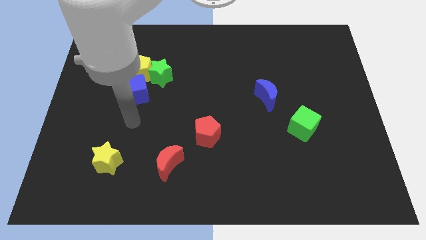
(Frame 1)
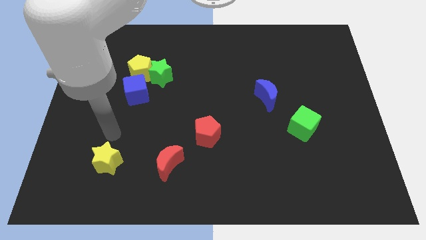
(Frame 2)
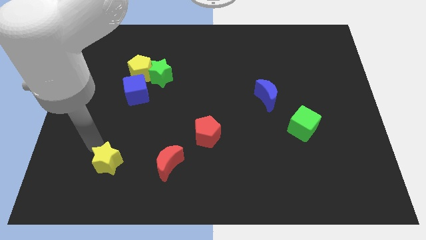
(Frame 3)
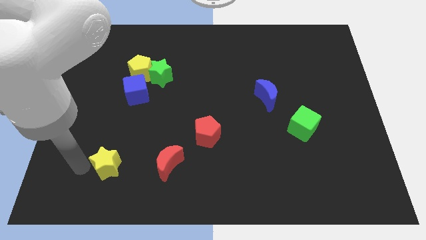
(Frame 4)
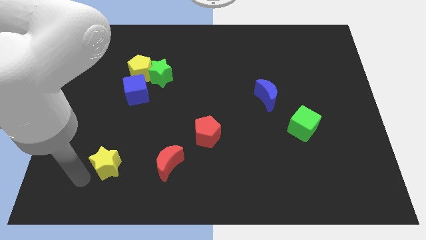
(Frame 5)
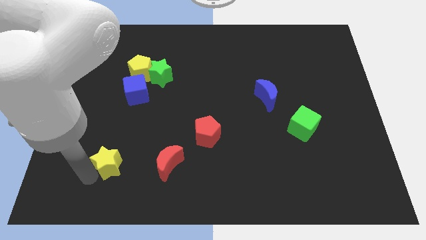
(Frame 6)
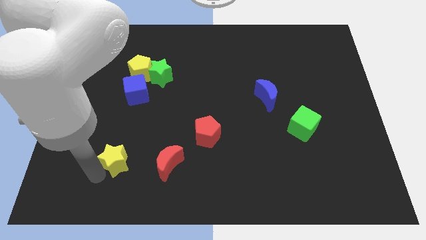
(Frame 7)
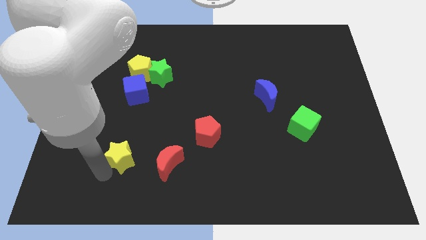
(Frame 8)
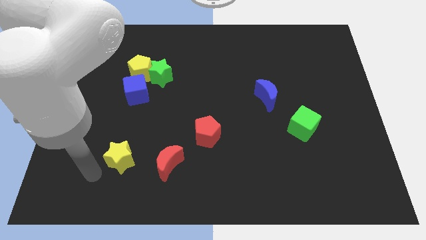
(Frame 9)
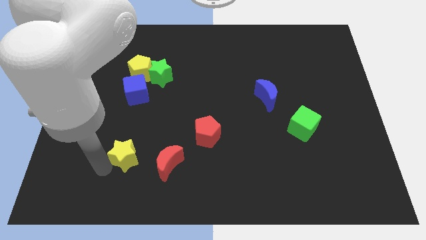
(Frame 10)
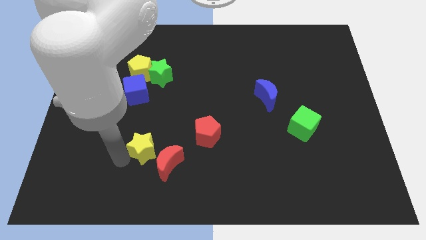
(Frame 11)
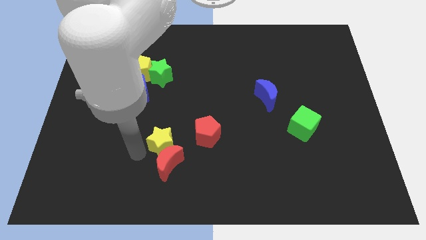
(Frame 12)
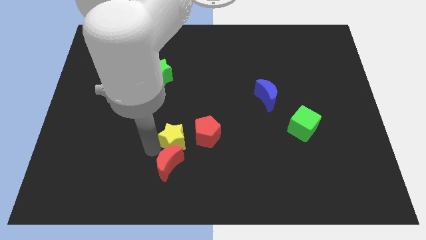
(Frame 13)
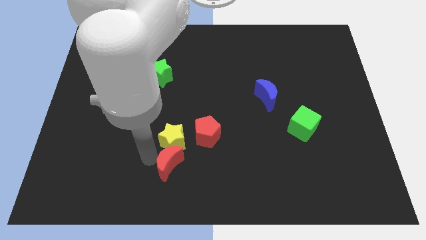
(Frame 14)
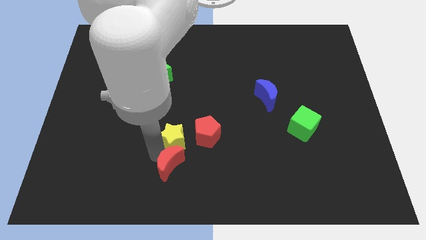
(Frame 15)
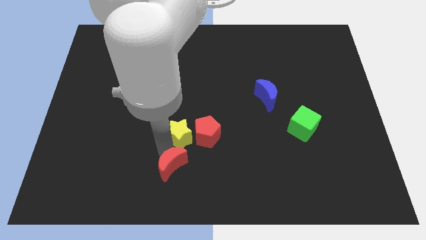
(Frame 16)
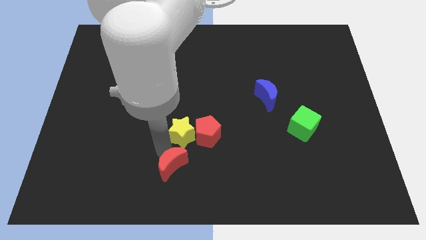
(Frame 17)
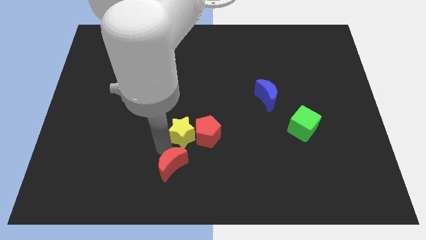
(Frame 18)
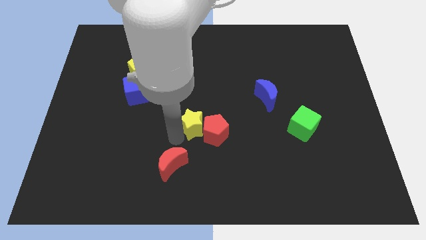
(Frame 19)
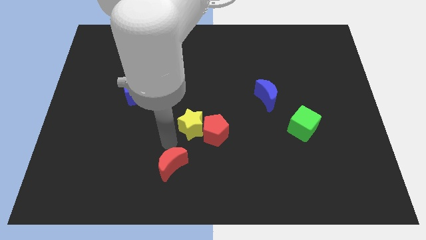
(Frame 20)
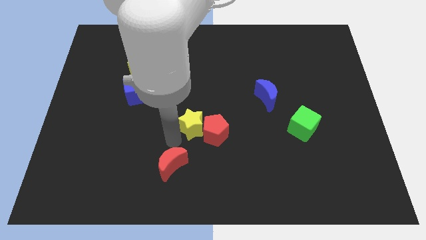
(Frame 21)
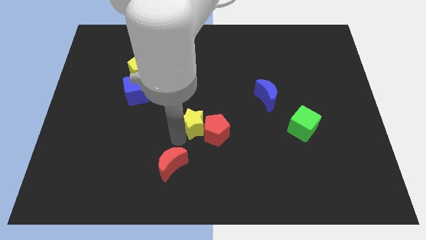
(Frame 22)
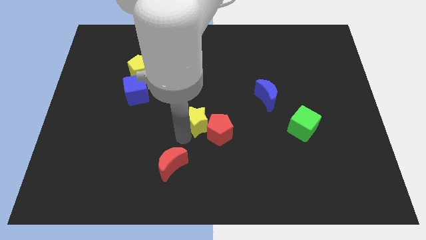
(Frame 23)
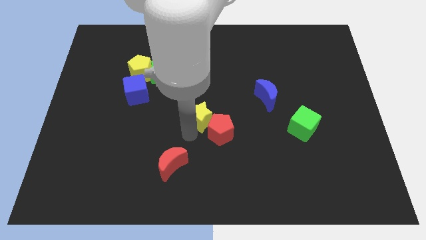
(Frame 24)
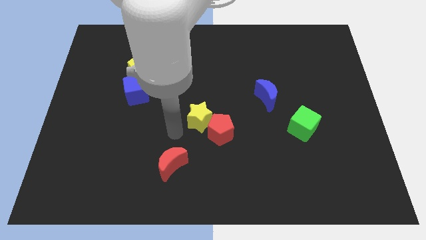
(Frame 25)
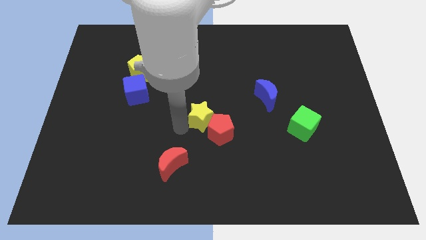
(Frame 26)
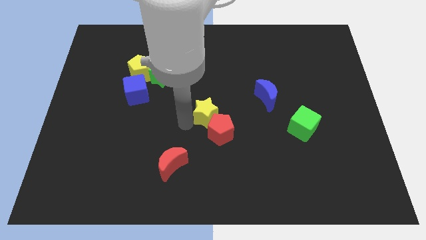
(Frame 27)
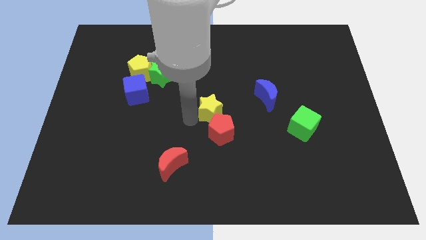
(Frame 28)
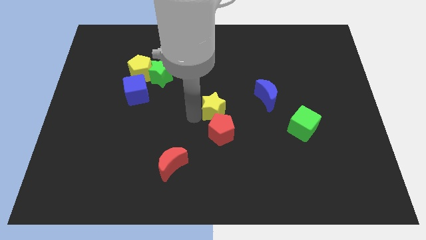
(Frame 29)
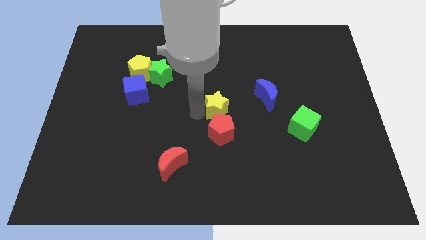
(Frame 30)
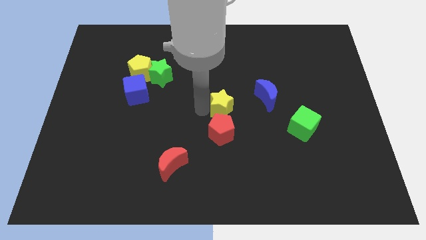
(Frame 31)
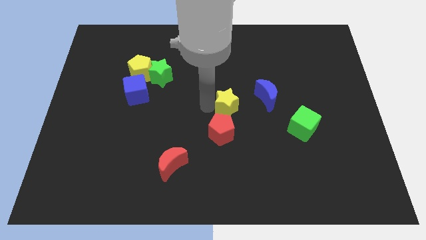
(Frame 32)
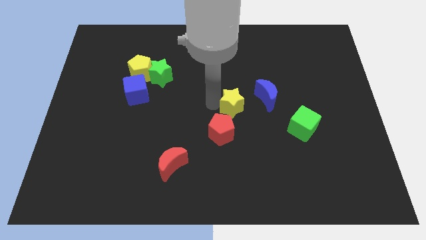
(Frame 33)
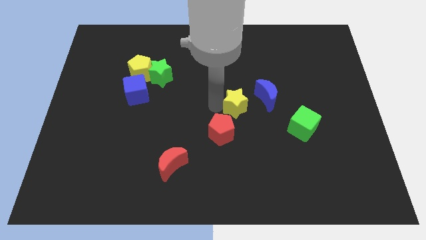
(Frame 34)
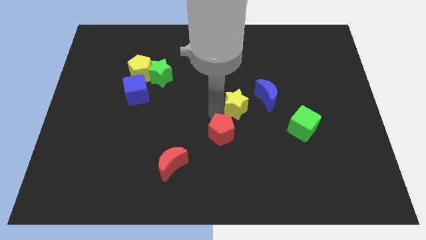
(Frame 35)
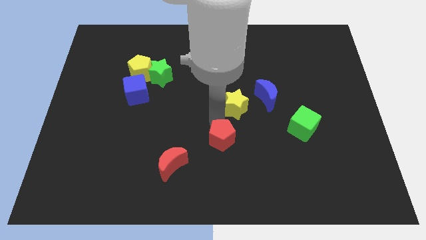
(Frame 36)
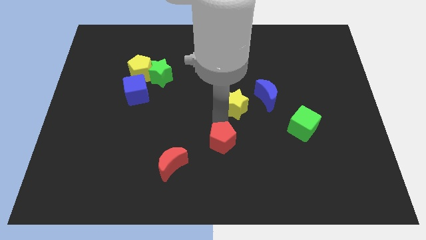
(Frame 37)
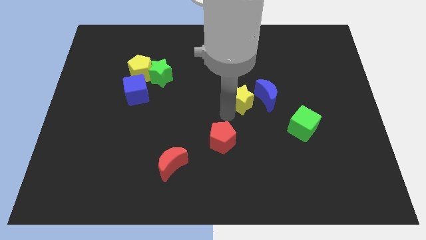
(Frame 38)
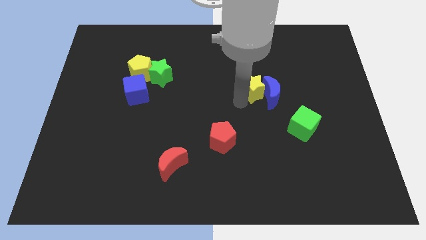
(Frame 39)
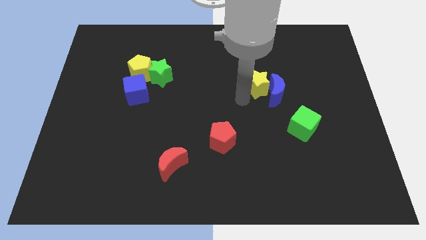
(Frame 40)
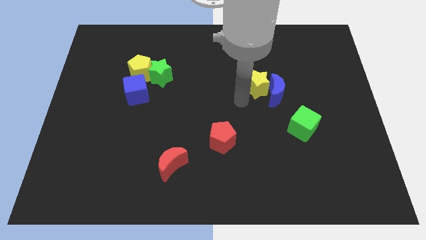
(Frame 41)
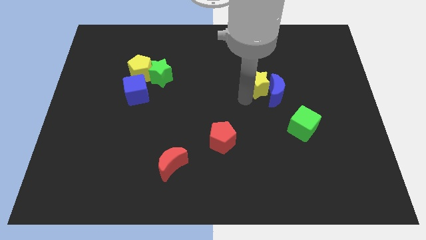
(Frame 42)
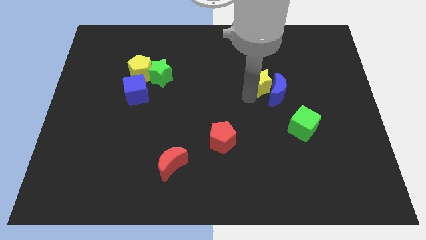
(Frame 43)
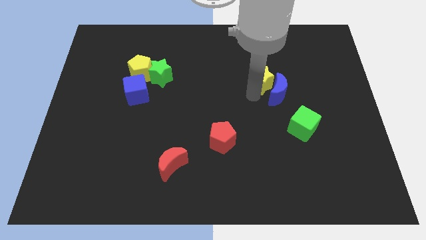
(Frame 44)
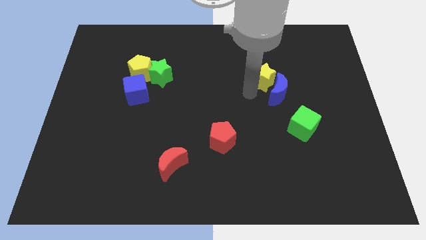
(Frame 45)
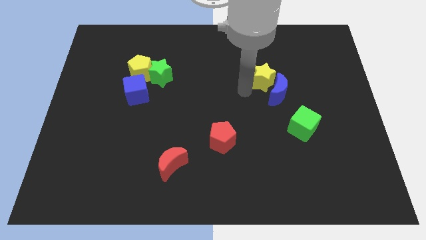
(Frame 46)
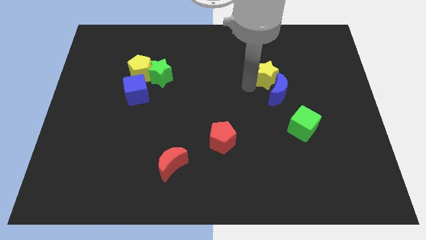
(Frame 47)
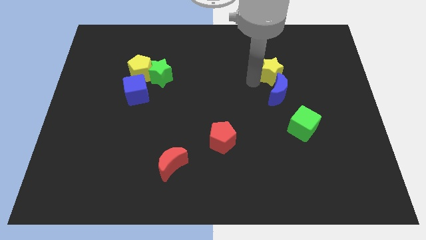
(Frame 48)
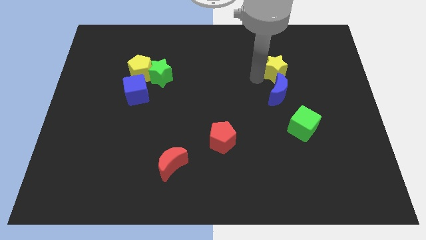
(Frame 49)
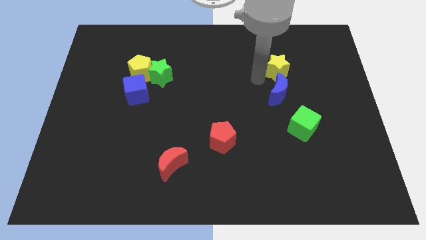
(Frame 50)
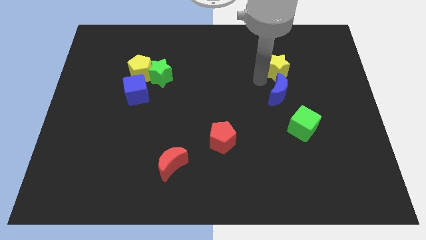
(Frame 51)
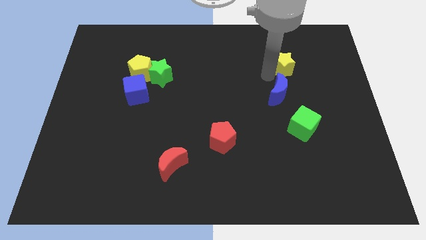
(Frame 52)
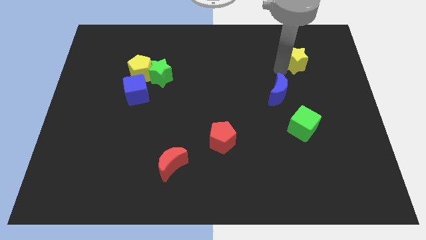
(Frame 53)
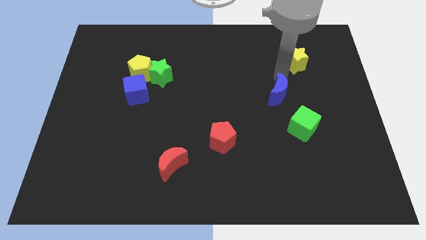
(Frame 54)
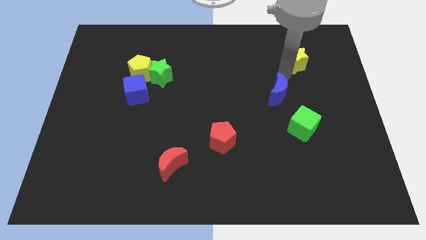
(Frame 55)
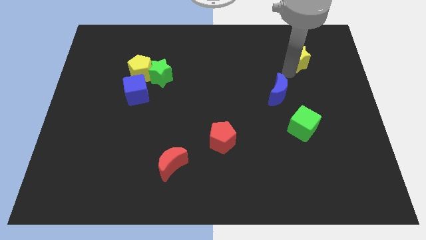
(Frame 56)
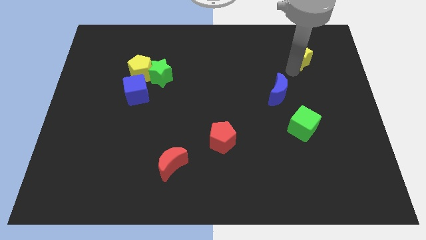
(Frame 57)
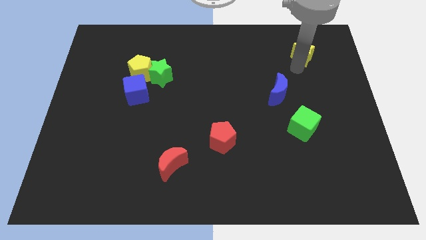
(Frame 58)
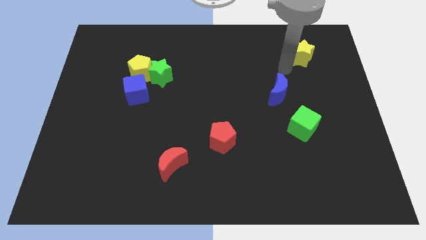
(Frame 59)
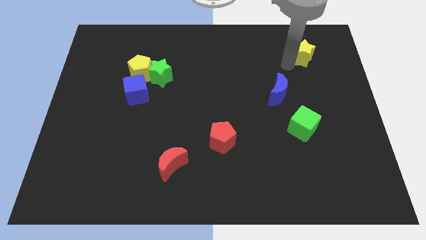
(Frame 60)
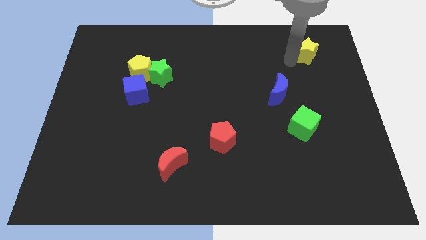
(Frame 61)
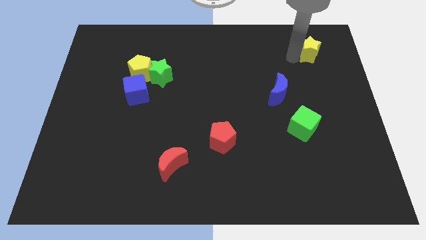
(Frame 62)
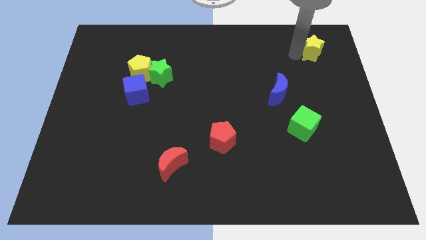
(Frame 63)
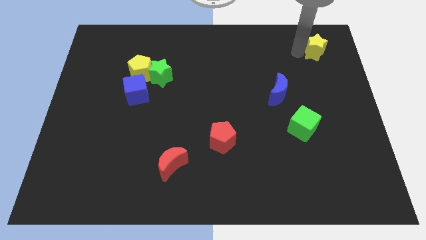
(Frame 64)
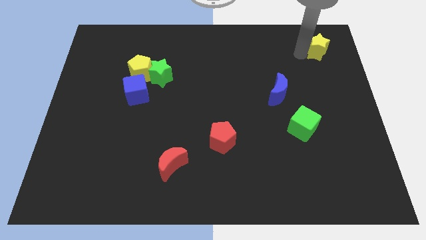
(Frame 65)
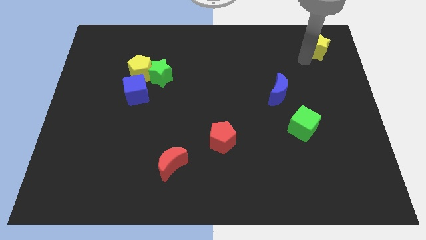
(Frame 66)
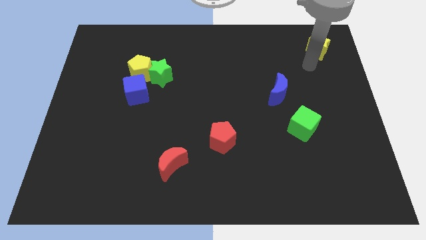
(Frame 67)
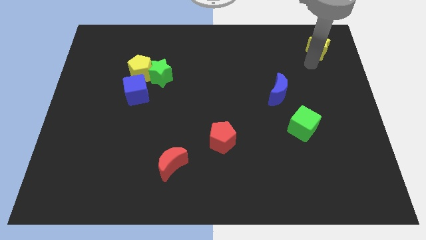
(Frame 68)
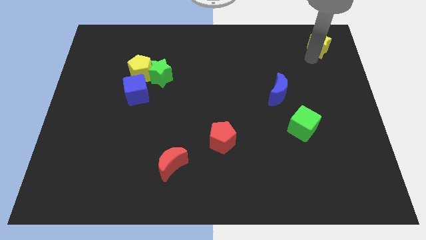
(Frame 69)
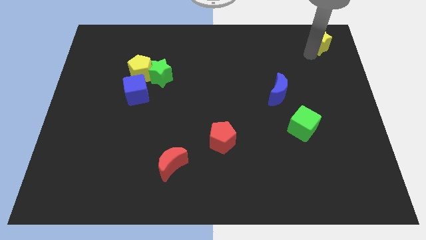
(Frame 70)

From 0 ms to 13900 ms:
move the yellow star to the upper right corner

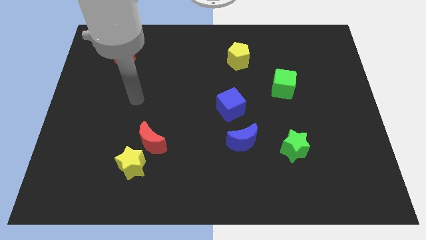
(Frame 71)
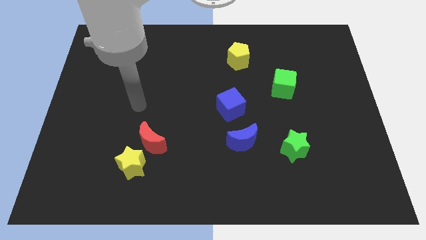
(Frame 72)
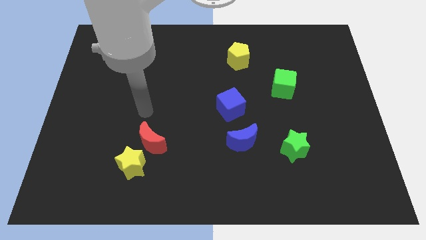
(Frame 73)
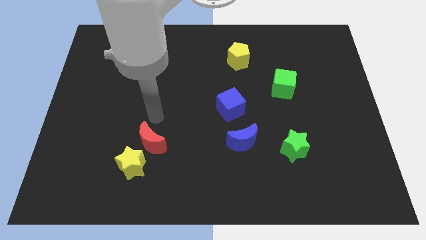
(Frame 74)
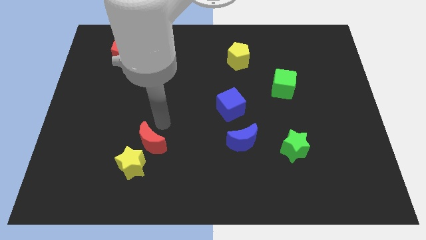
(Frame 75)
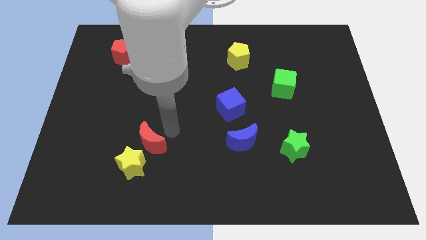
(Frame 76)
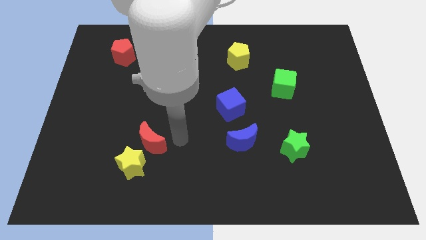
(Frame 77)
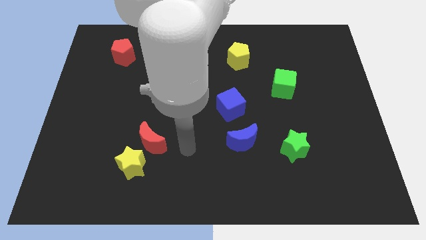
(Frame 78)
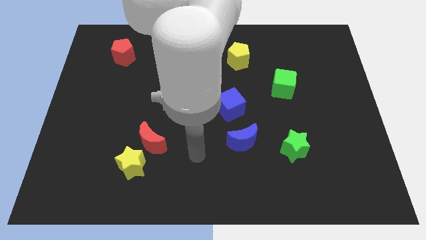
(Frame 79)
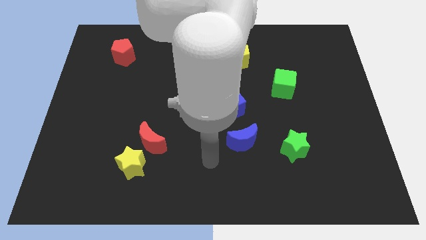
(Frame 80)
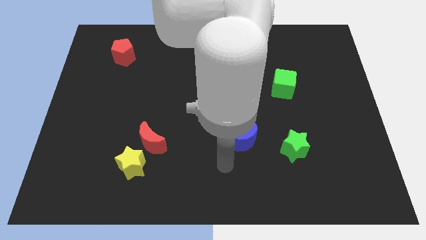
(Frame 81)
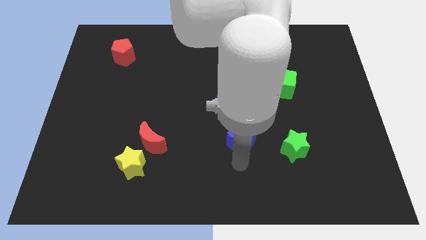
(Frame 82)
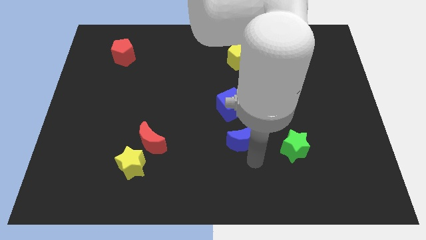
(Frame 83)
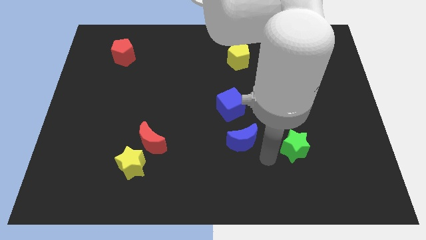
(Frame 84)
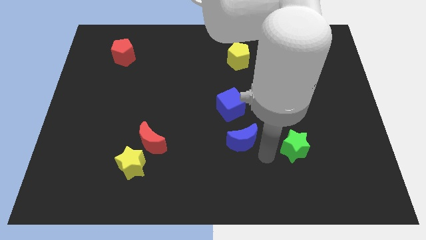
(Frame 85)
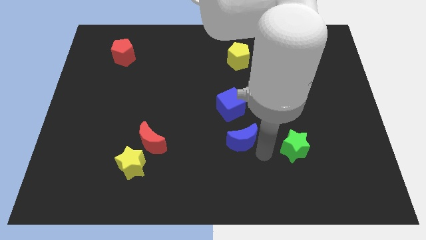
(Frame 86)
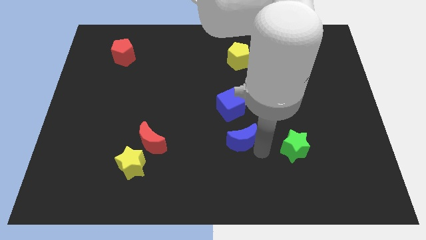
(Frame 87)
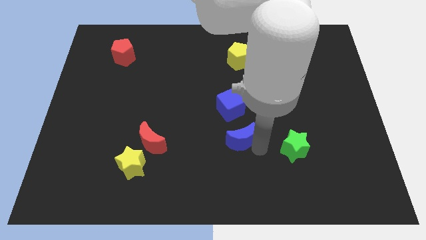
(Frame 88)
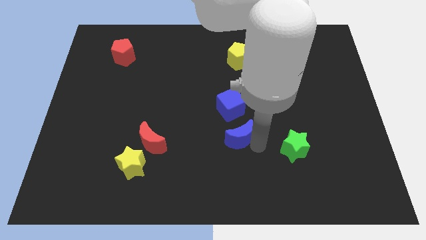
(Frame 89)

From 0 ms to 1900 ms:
put the blue moon to the center
